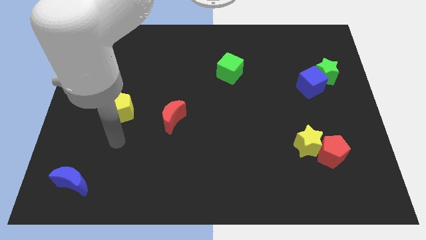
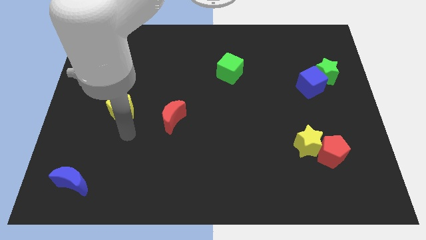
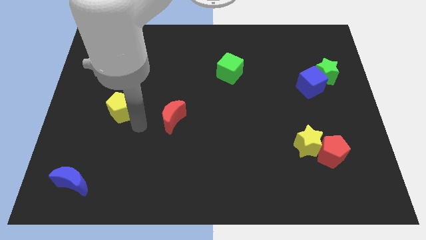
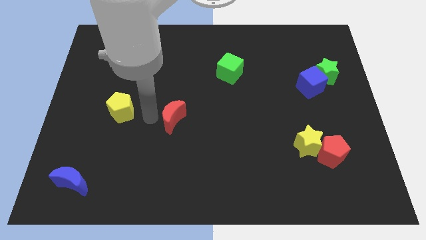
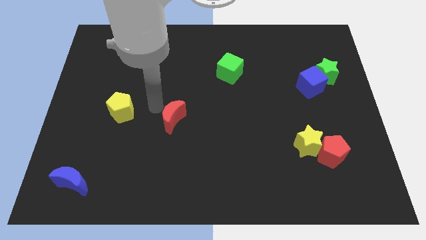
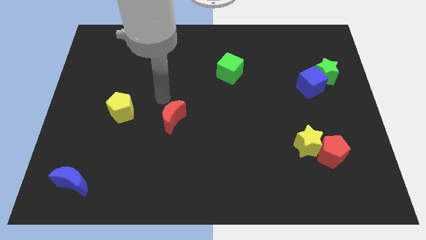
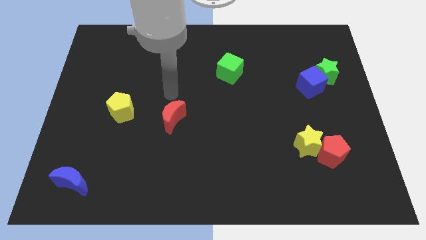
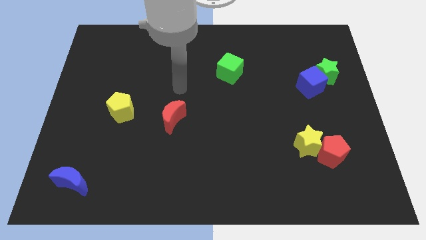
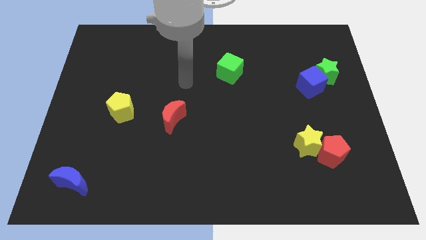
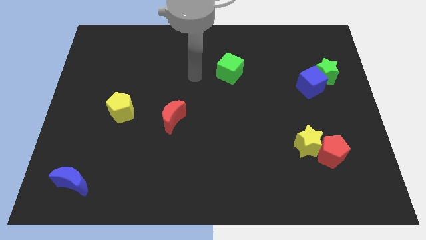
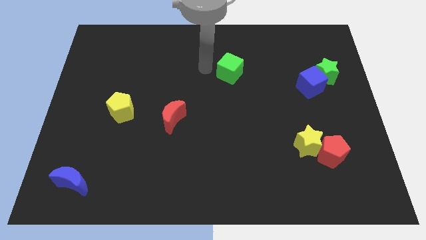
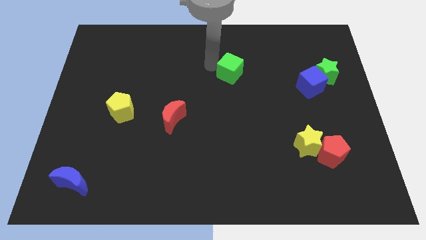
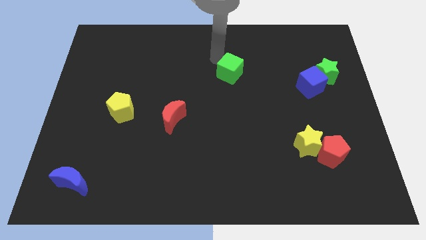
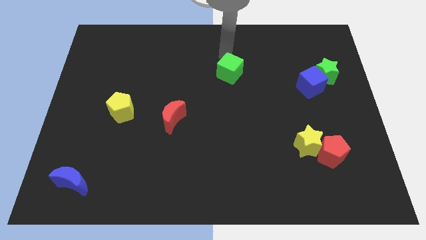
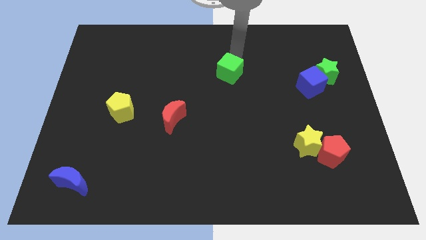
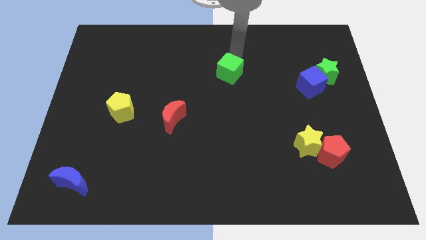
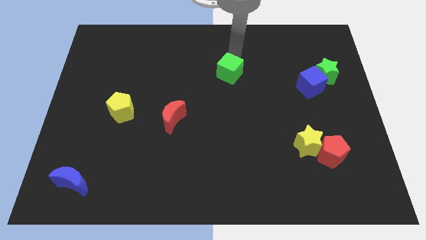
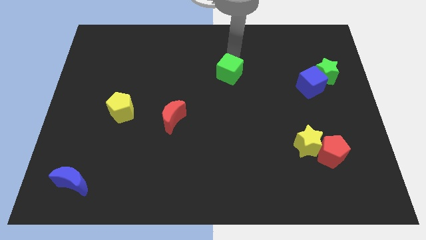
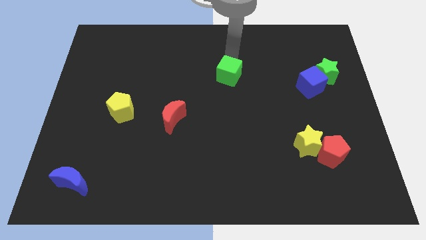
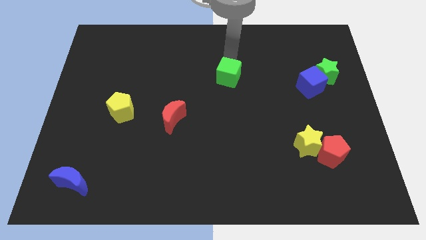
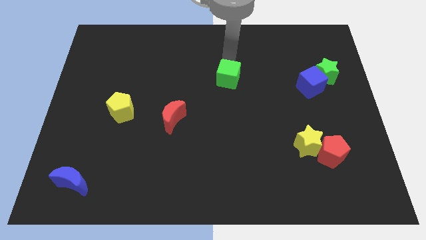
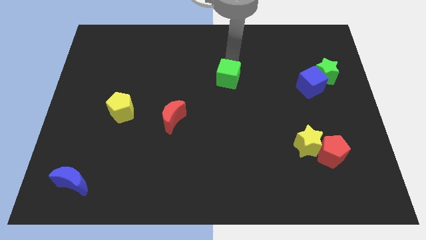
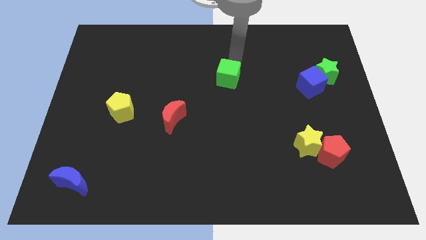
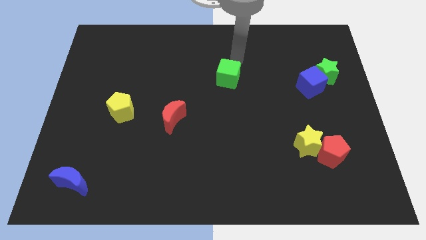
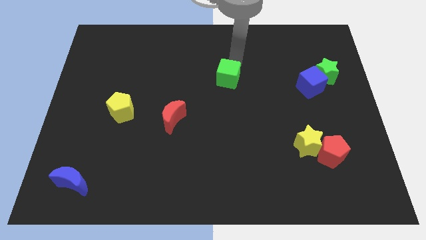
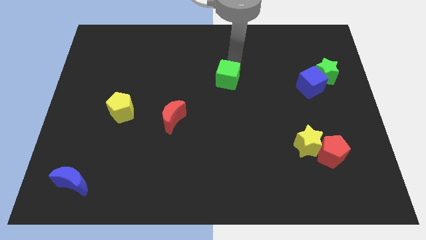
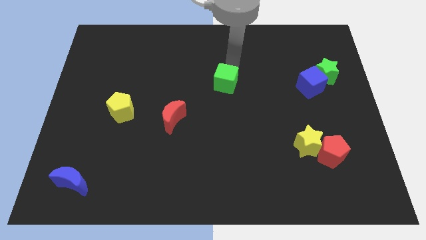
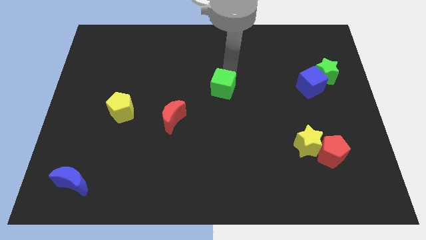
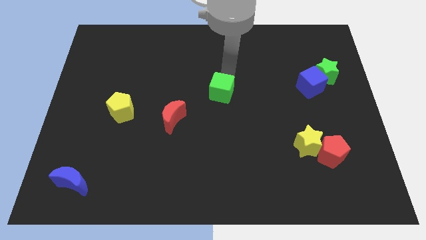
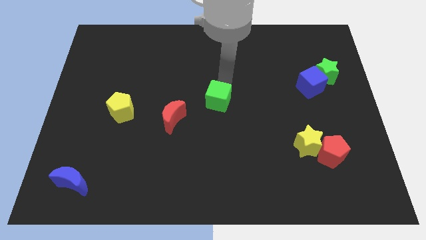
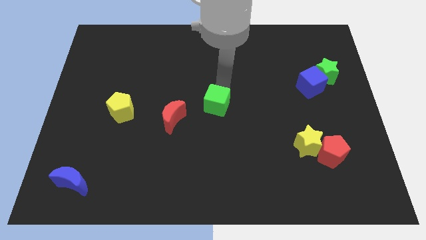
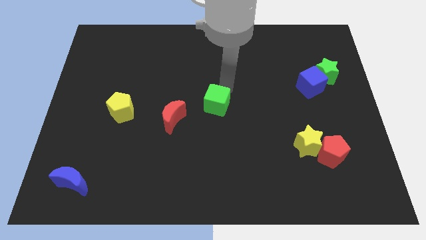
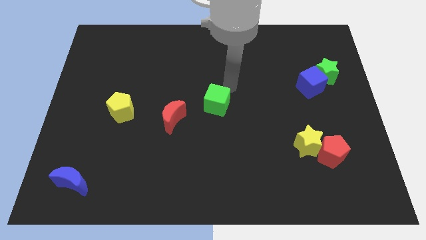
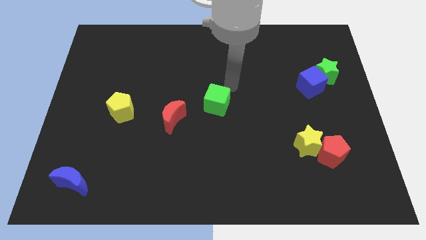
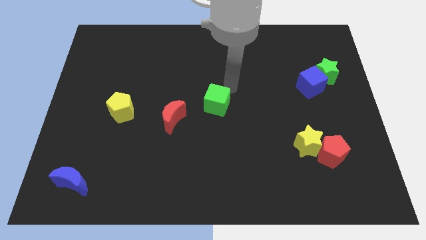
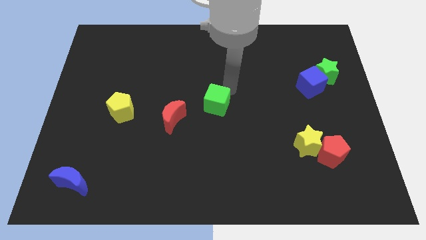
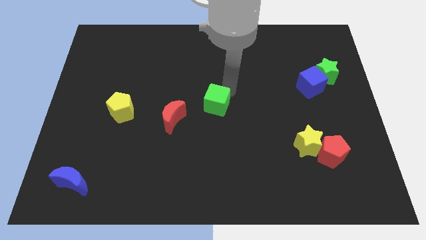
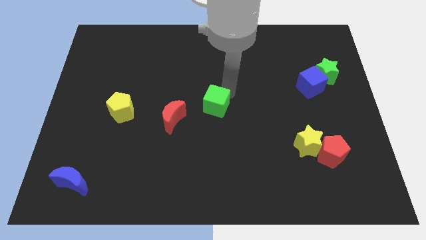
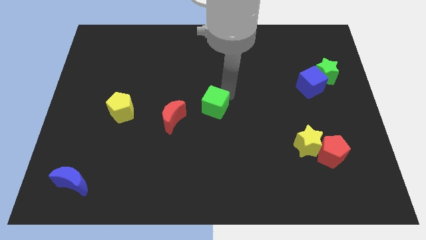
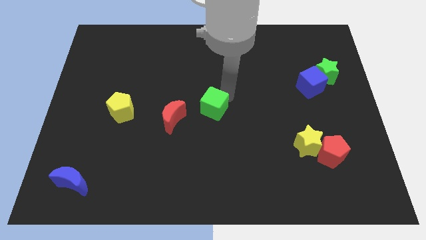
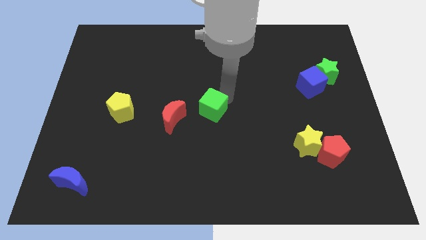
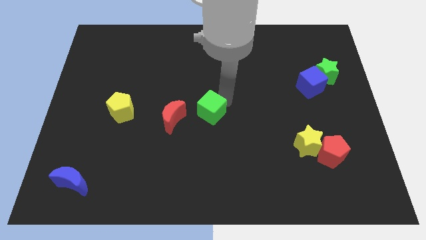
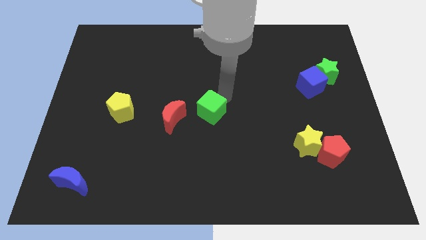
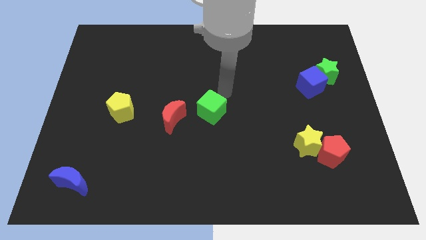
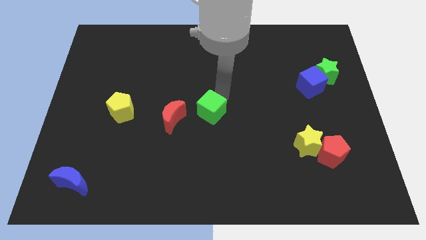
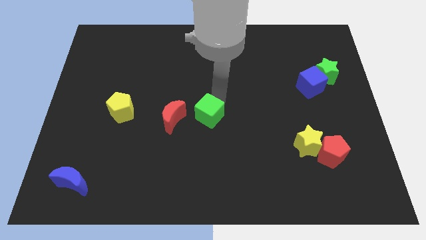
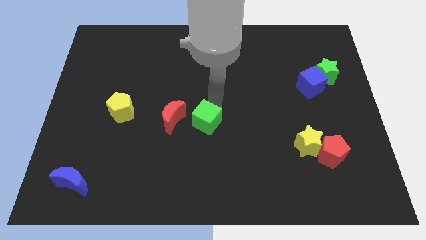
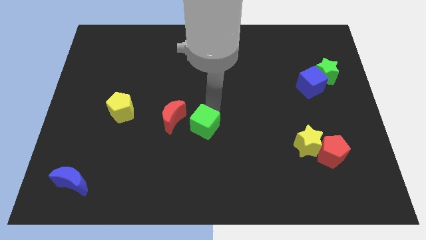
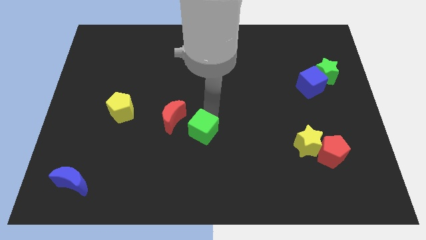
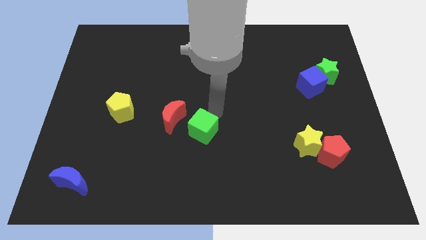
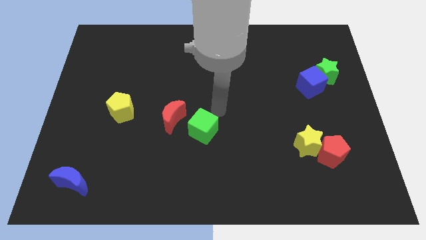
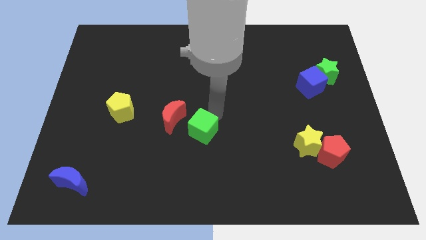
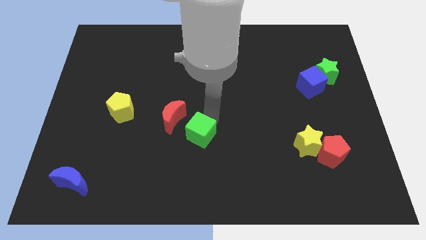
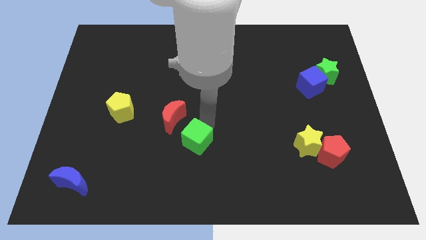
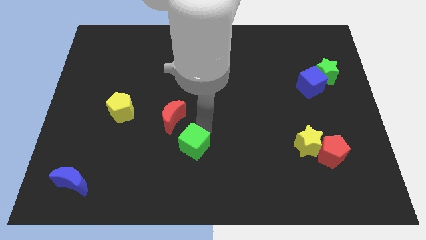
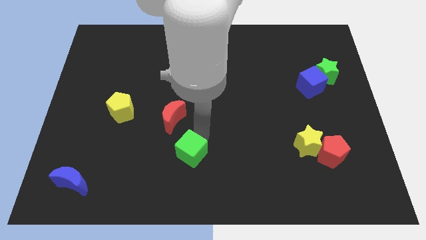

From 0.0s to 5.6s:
move the green cube to the bottom of the red moon

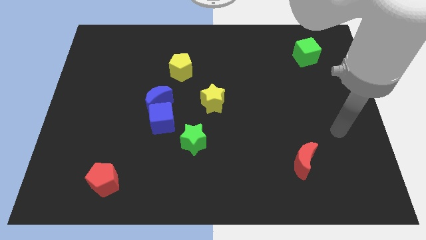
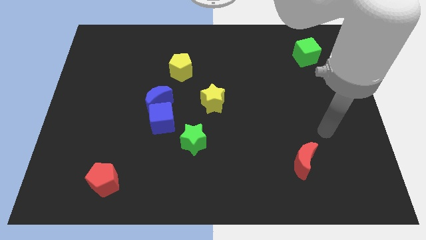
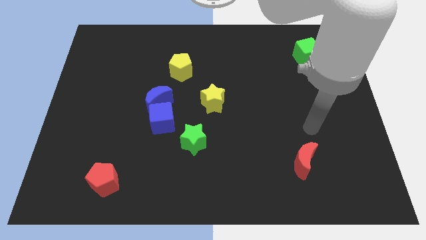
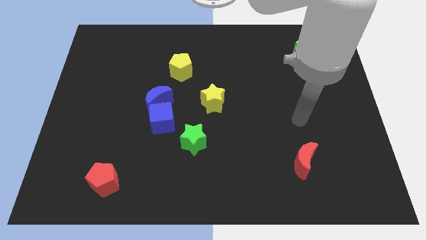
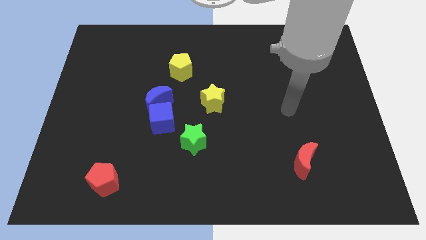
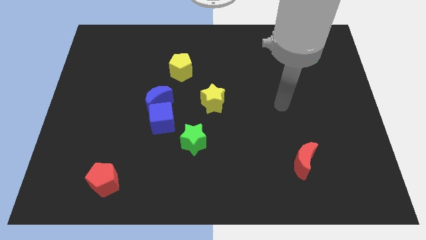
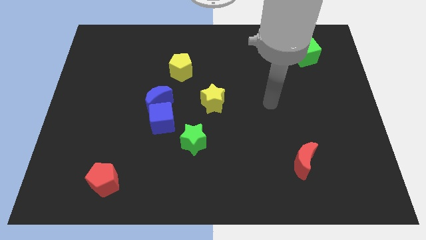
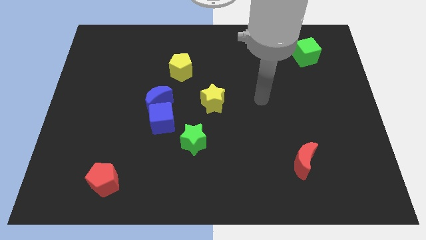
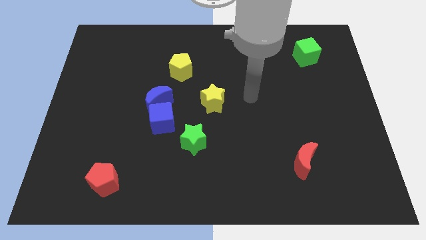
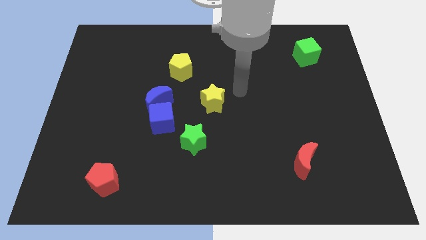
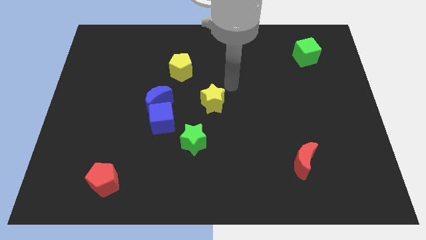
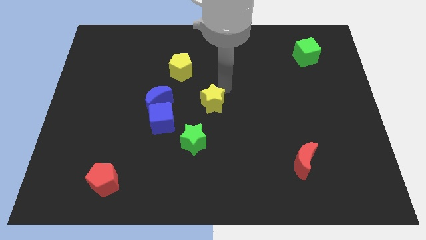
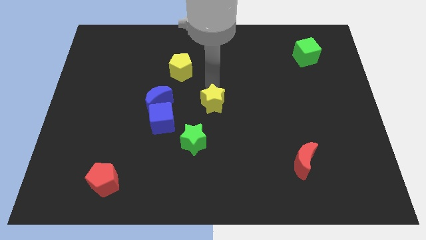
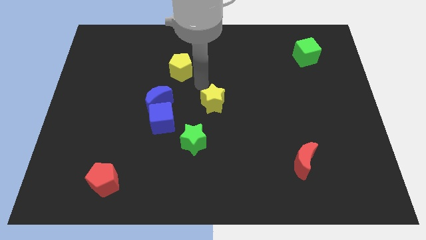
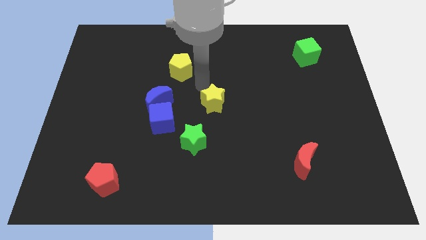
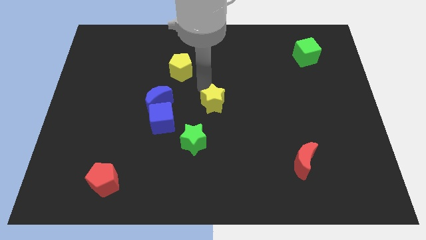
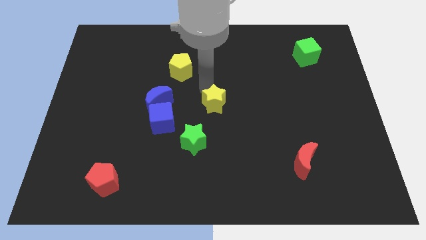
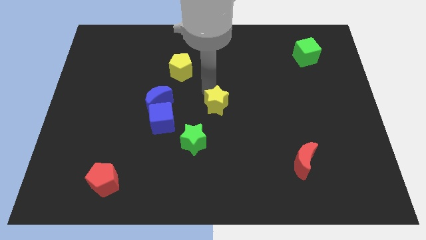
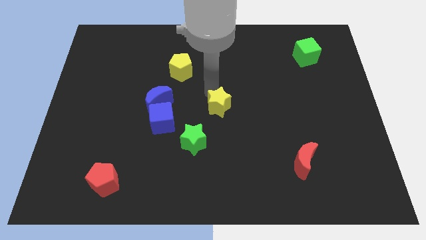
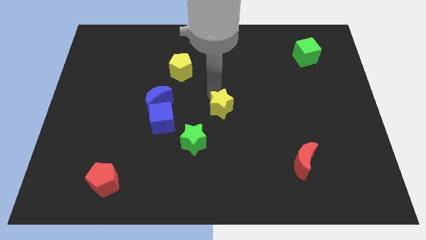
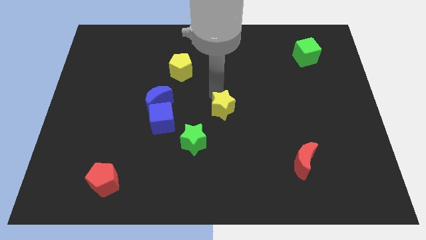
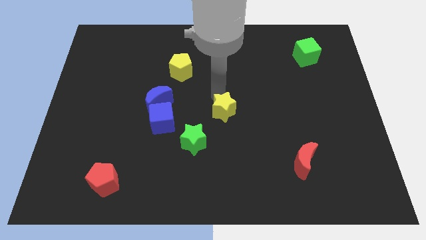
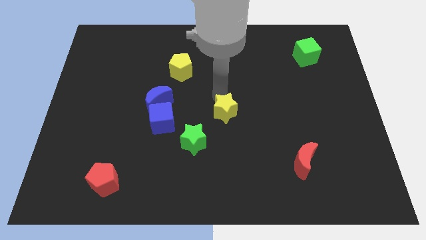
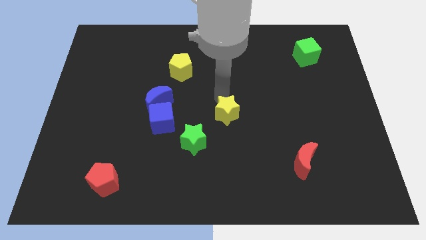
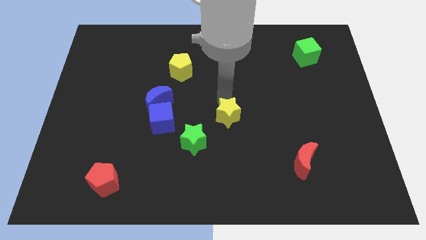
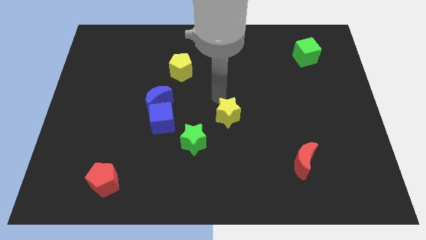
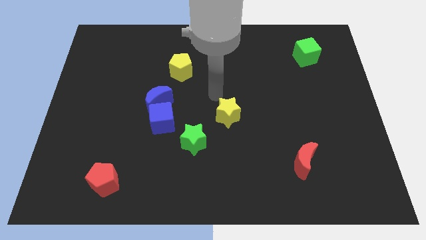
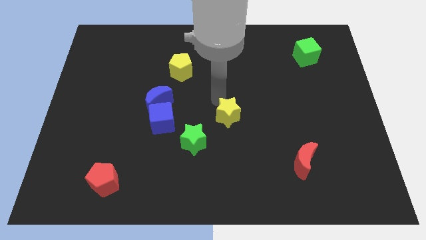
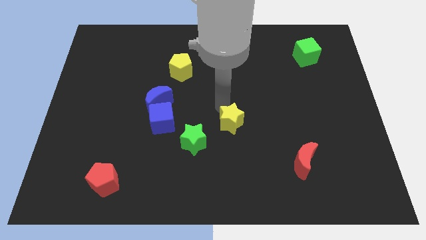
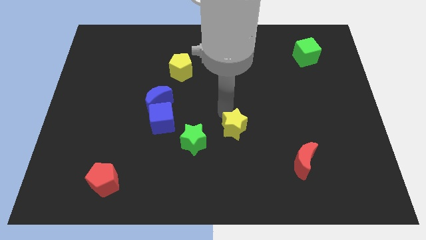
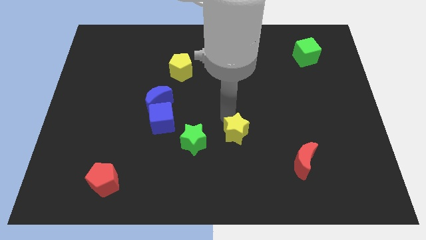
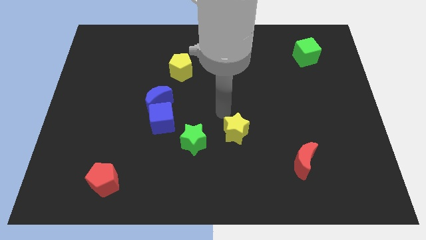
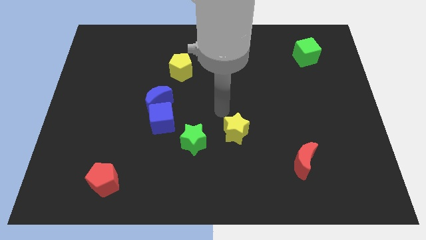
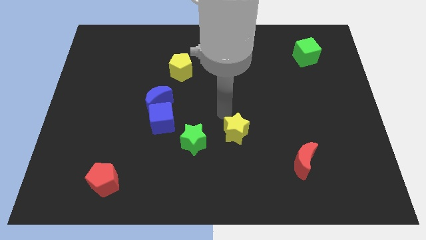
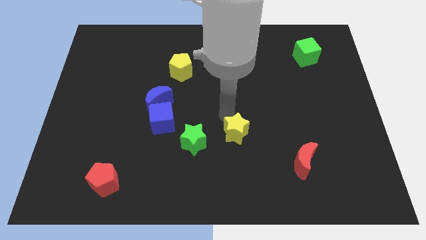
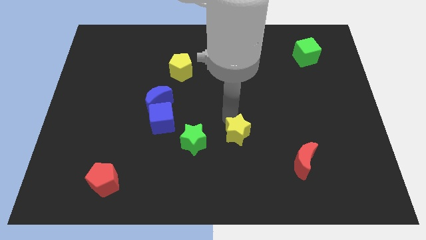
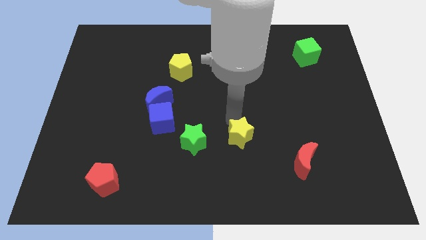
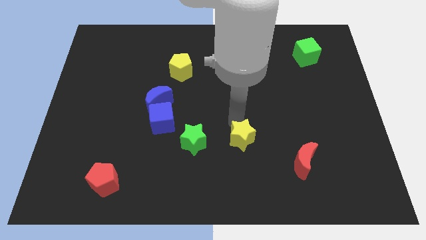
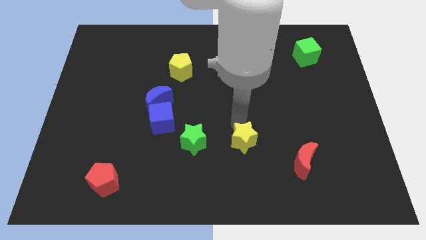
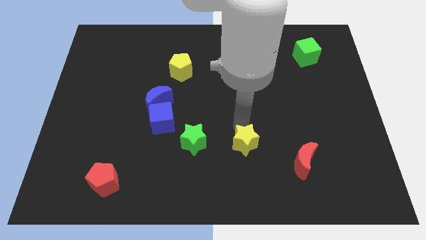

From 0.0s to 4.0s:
move the yellow star left of the red moon
